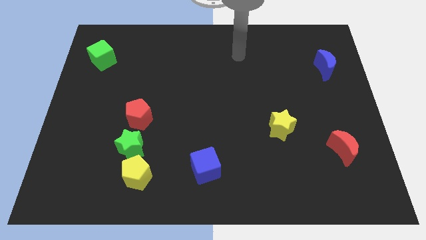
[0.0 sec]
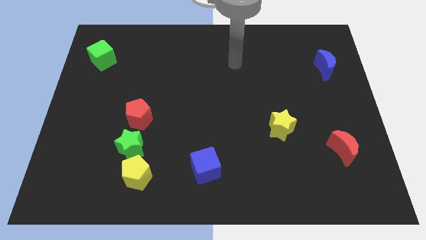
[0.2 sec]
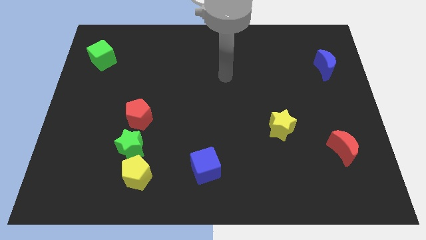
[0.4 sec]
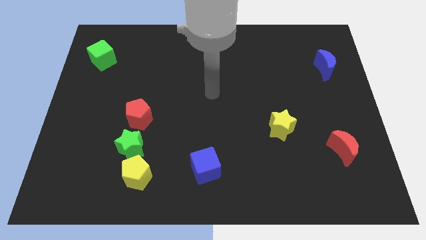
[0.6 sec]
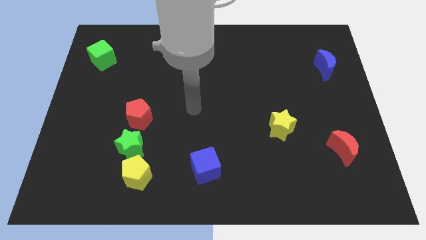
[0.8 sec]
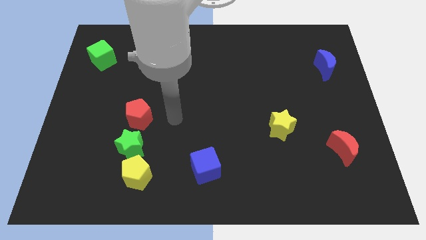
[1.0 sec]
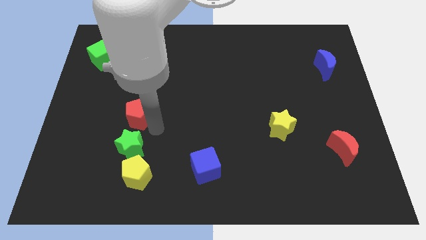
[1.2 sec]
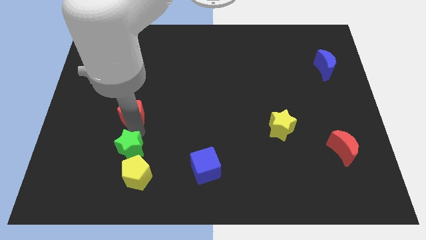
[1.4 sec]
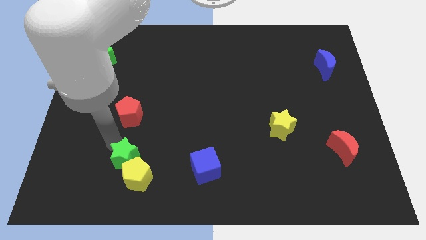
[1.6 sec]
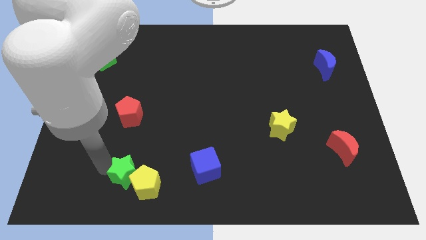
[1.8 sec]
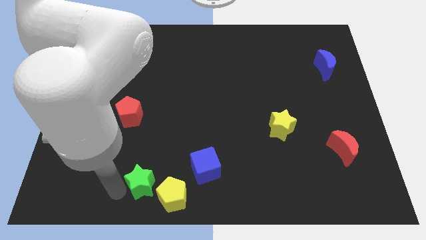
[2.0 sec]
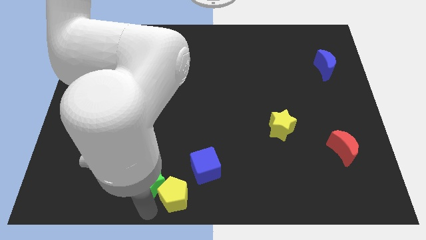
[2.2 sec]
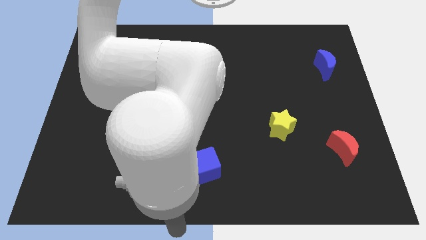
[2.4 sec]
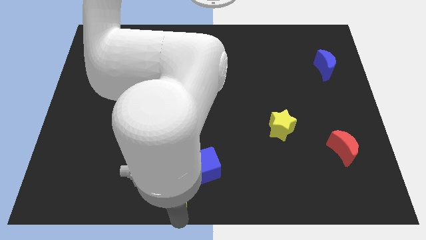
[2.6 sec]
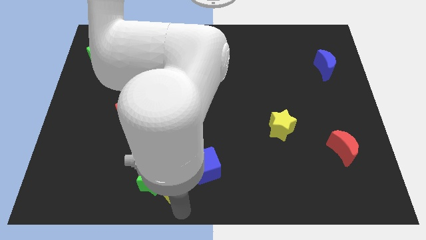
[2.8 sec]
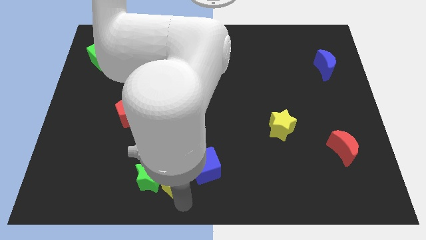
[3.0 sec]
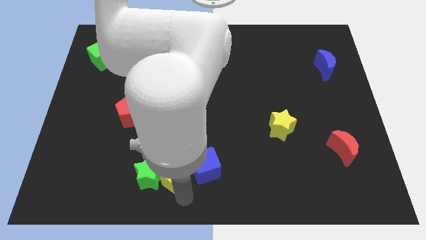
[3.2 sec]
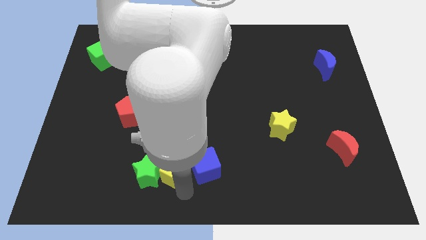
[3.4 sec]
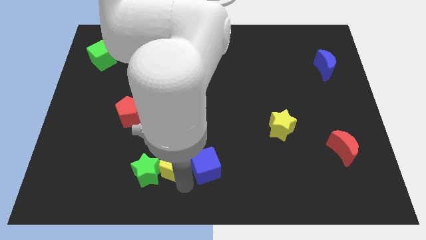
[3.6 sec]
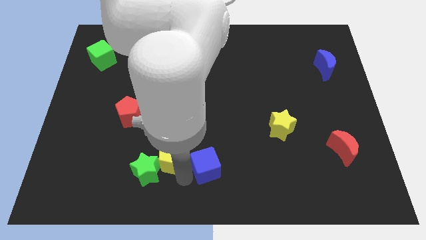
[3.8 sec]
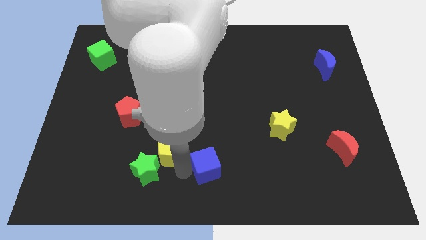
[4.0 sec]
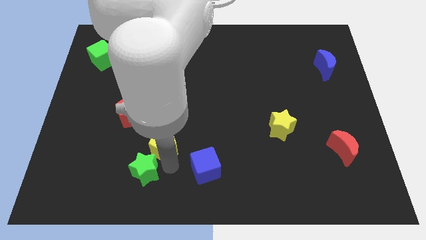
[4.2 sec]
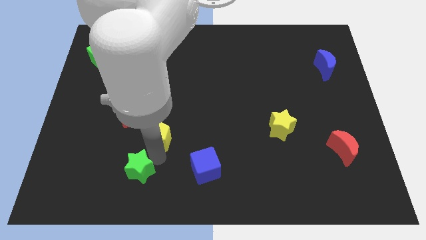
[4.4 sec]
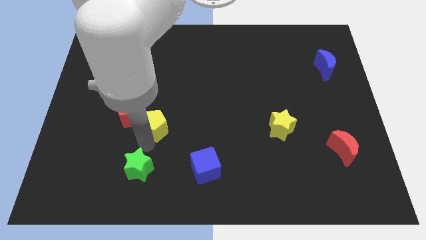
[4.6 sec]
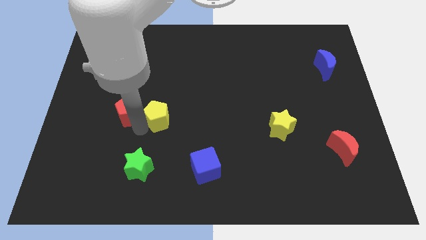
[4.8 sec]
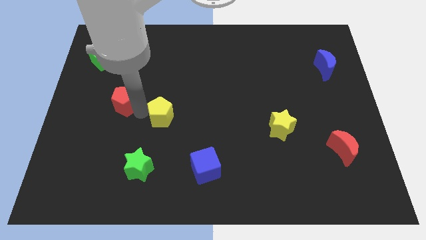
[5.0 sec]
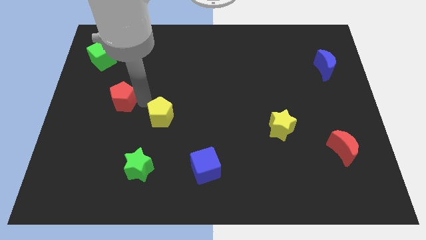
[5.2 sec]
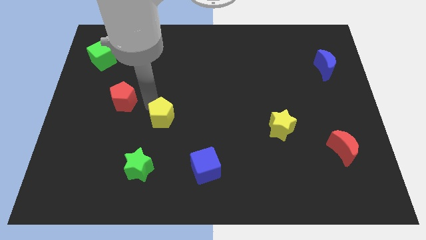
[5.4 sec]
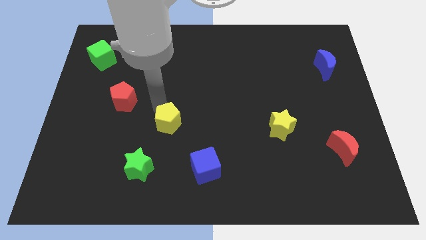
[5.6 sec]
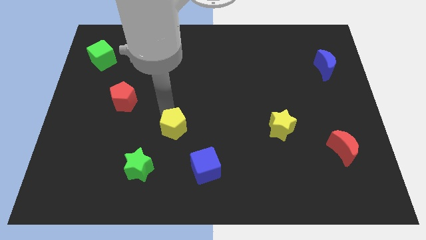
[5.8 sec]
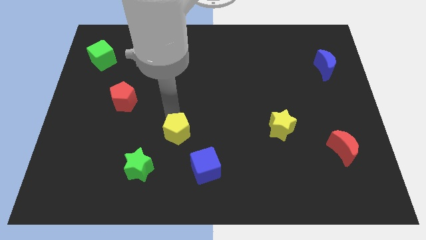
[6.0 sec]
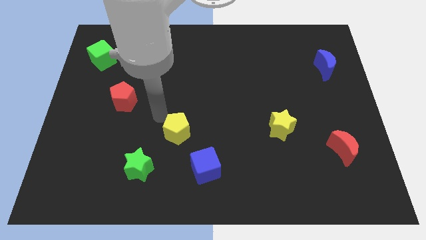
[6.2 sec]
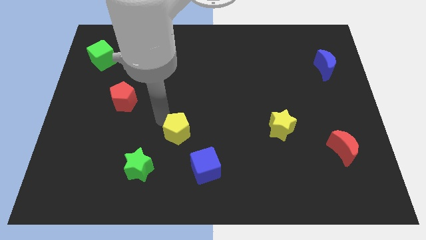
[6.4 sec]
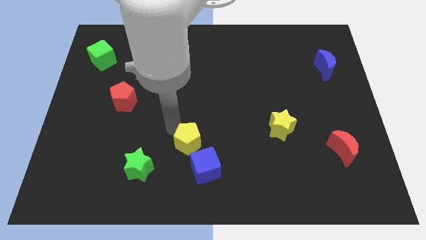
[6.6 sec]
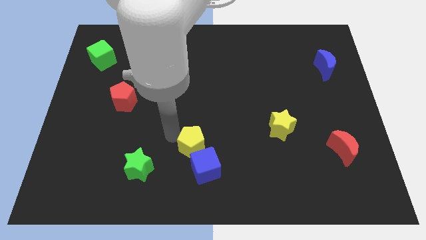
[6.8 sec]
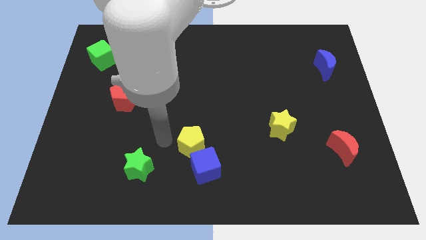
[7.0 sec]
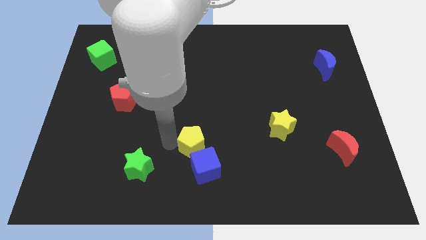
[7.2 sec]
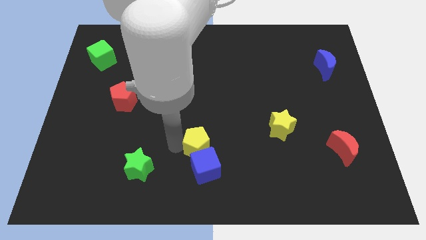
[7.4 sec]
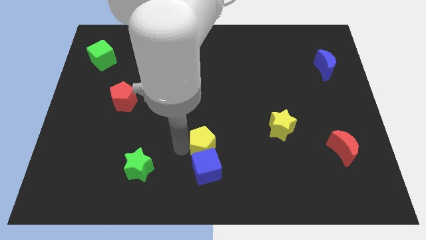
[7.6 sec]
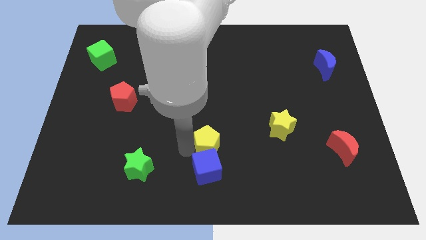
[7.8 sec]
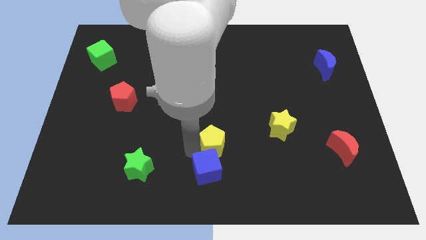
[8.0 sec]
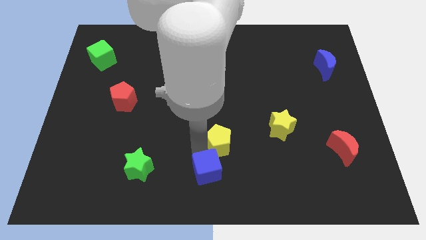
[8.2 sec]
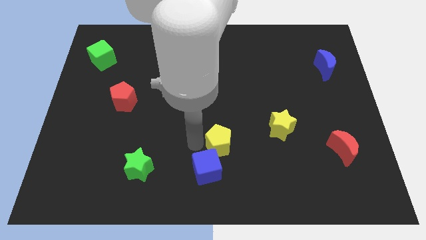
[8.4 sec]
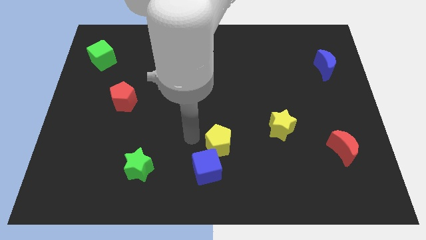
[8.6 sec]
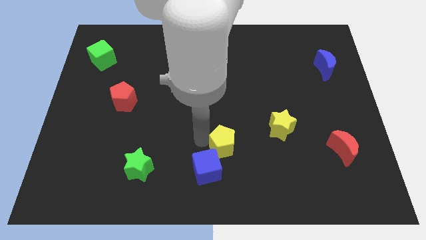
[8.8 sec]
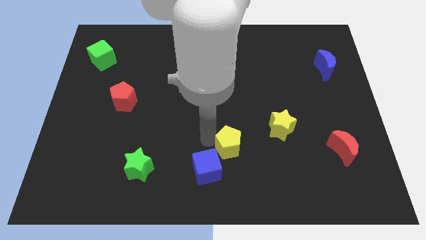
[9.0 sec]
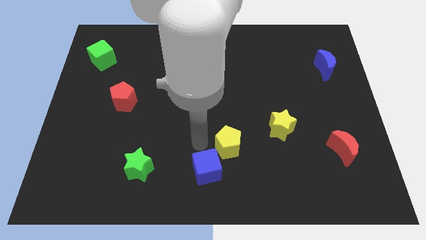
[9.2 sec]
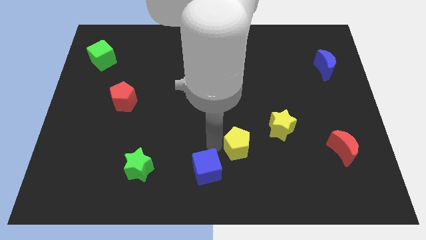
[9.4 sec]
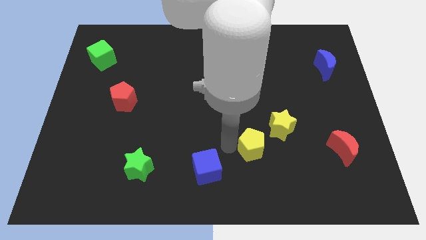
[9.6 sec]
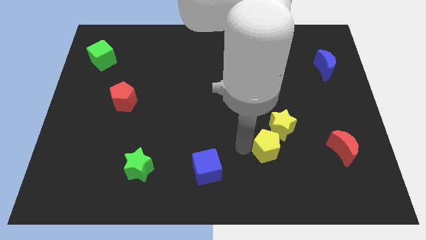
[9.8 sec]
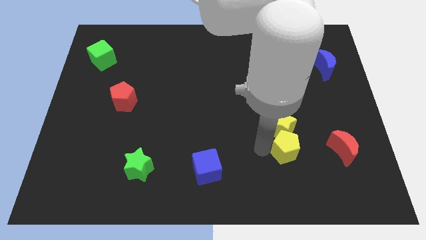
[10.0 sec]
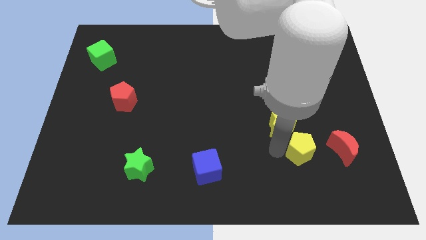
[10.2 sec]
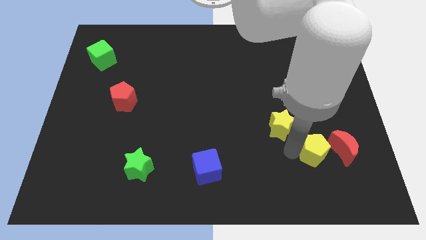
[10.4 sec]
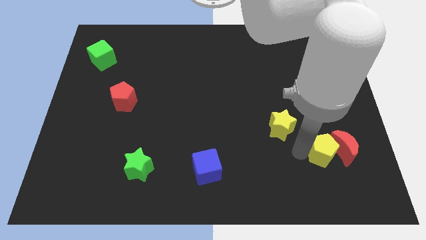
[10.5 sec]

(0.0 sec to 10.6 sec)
slide the yellow pentagon to the red moon

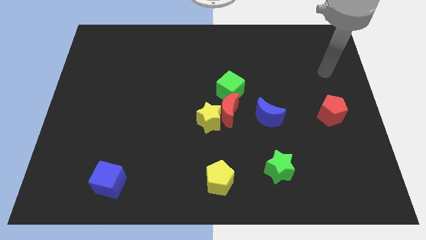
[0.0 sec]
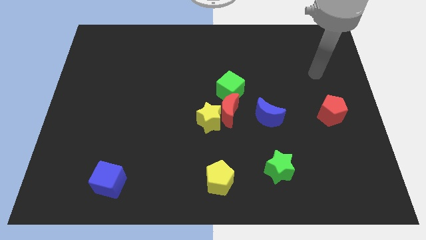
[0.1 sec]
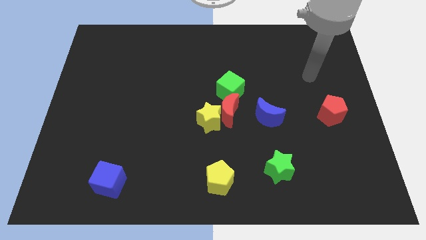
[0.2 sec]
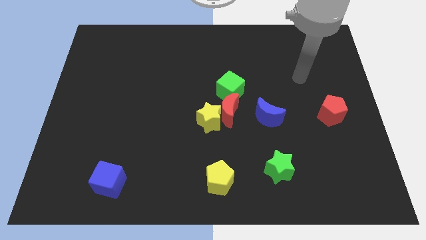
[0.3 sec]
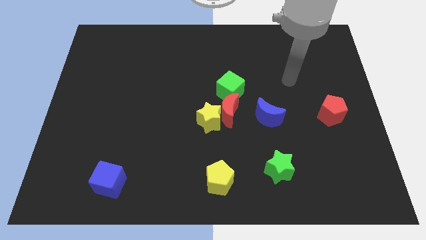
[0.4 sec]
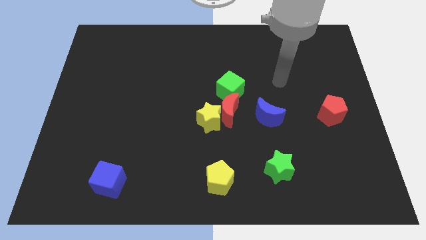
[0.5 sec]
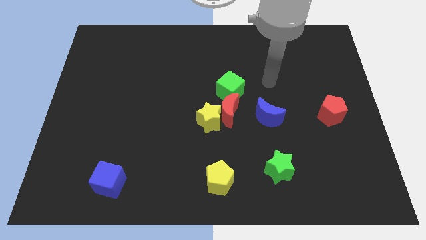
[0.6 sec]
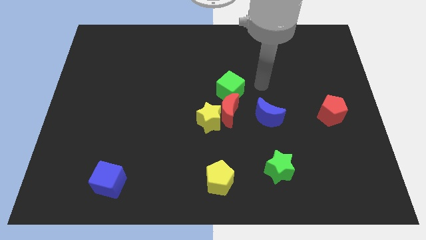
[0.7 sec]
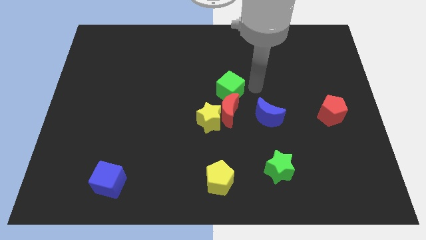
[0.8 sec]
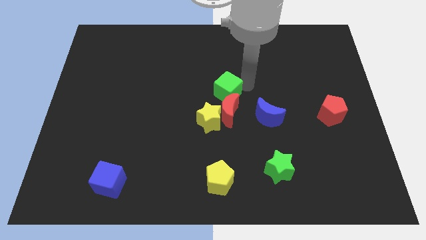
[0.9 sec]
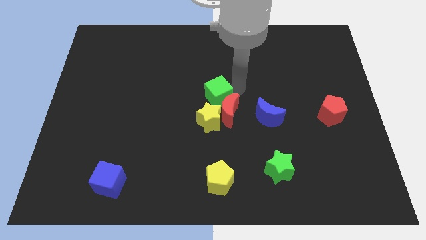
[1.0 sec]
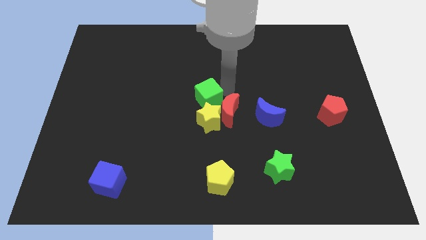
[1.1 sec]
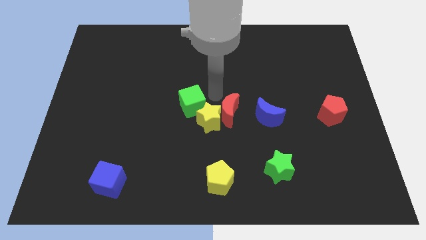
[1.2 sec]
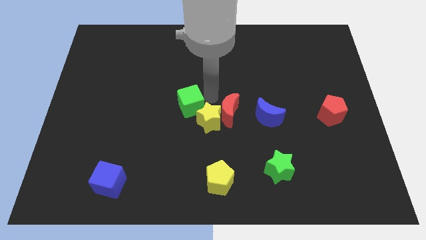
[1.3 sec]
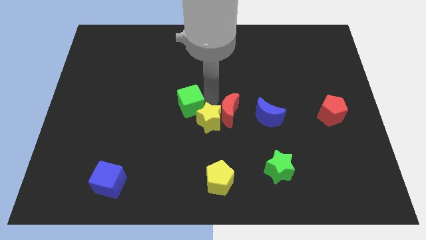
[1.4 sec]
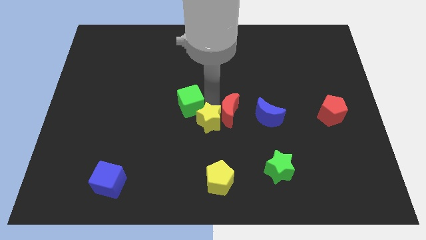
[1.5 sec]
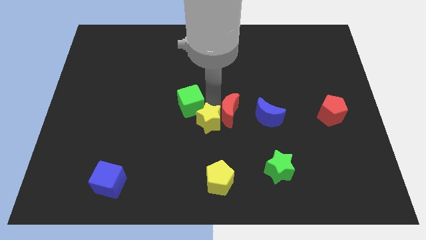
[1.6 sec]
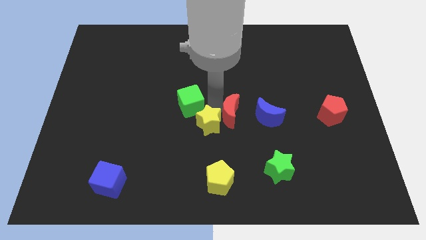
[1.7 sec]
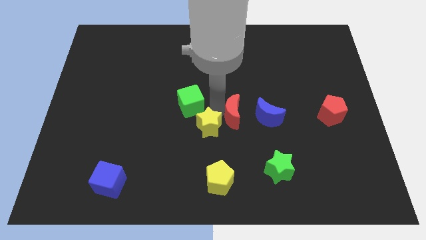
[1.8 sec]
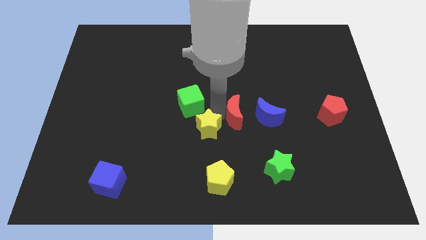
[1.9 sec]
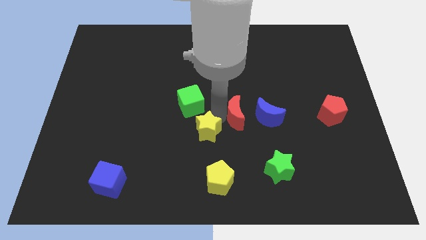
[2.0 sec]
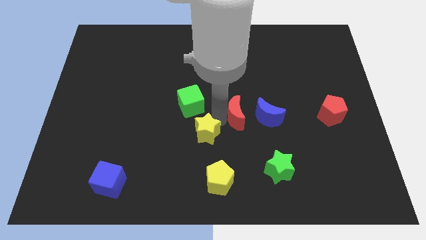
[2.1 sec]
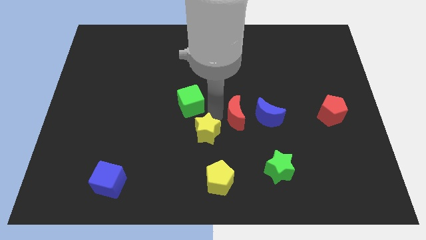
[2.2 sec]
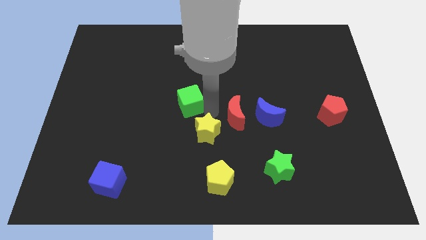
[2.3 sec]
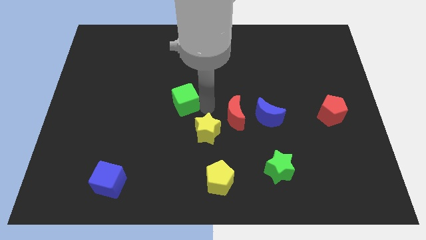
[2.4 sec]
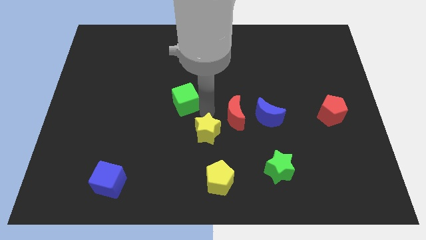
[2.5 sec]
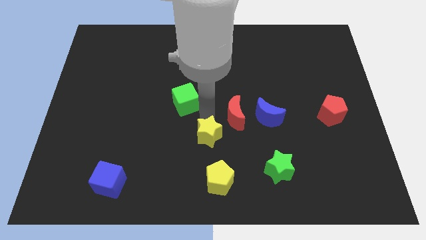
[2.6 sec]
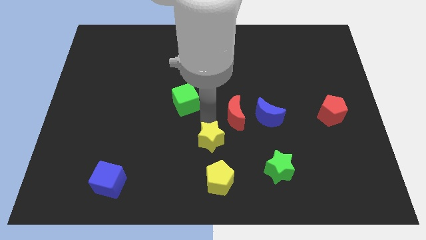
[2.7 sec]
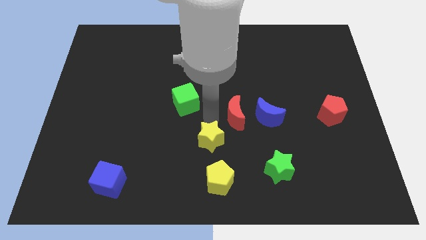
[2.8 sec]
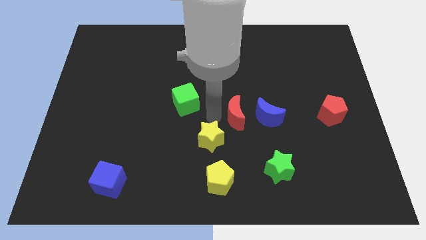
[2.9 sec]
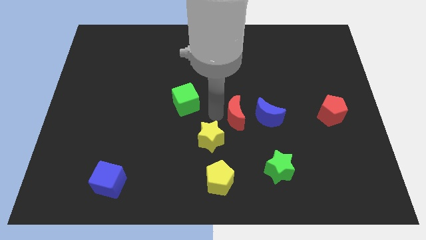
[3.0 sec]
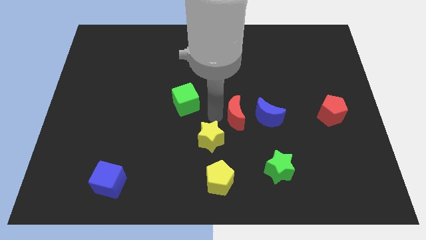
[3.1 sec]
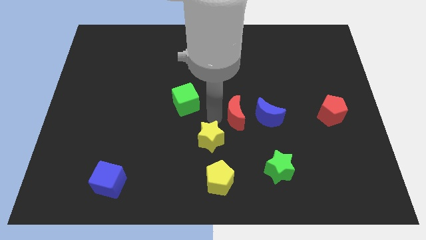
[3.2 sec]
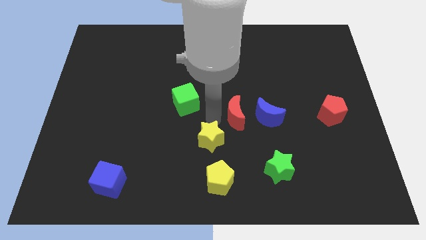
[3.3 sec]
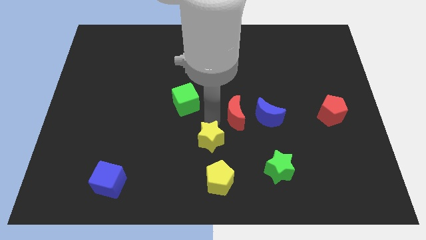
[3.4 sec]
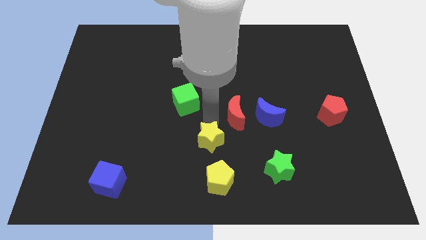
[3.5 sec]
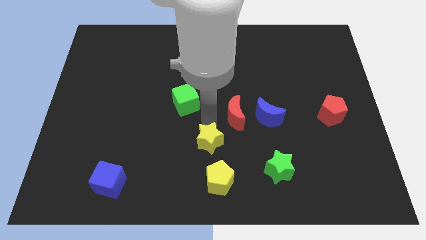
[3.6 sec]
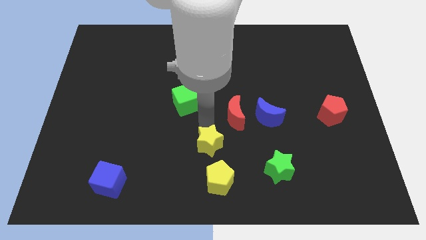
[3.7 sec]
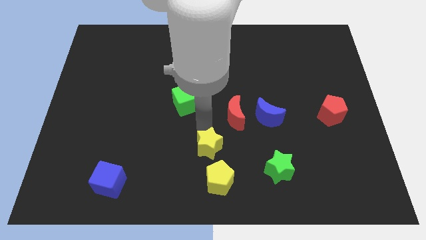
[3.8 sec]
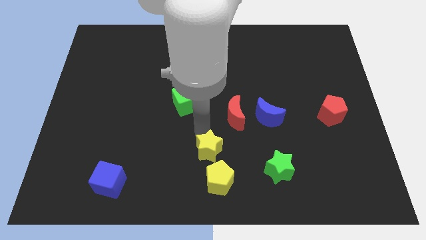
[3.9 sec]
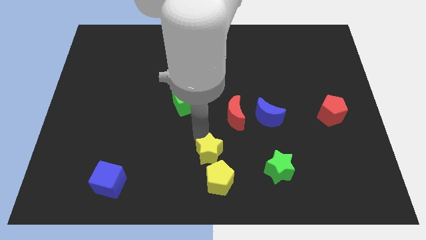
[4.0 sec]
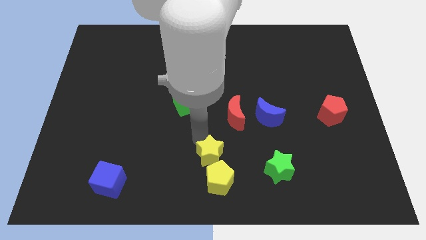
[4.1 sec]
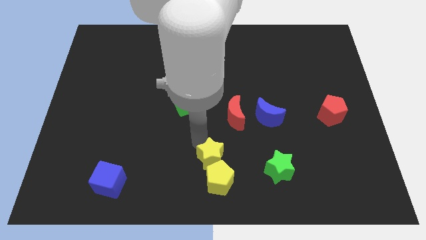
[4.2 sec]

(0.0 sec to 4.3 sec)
put the yellow star next to the yellow pentagon
